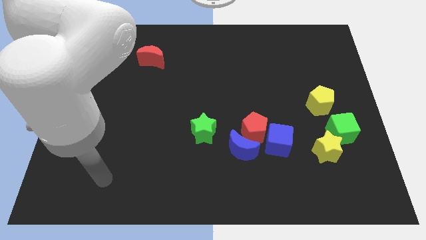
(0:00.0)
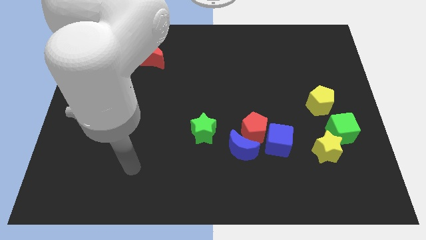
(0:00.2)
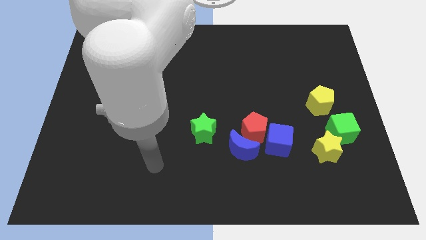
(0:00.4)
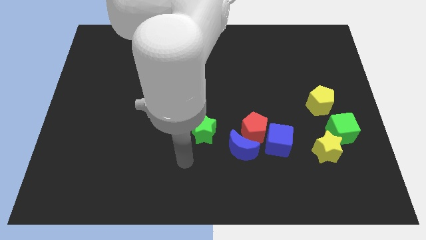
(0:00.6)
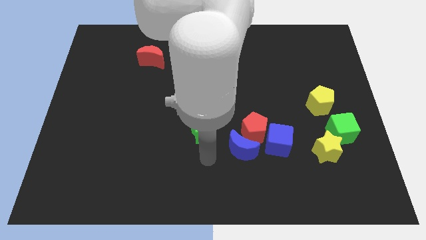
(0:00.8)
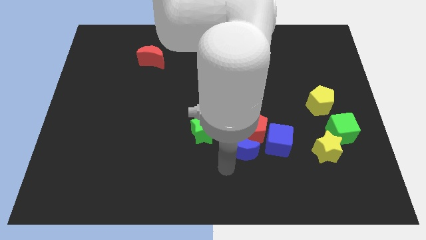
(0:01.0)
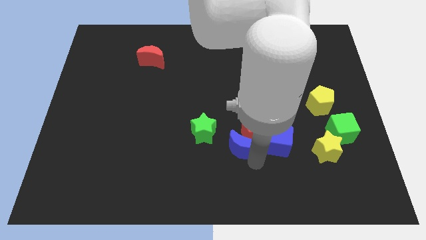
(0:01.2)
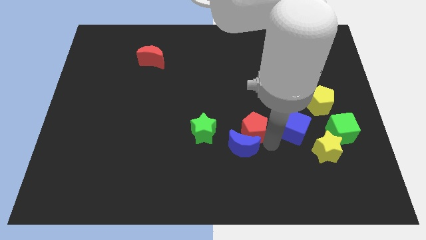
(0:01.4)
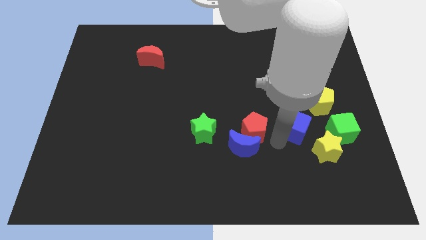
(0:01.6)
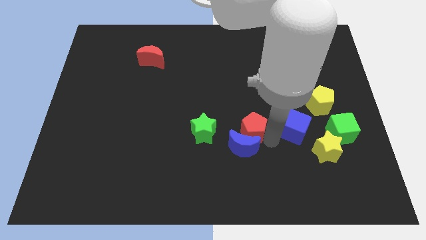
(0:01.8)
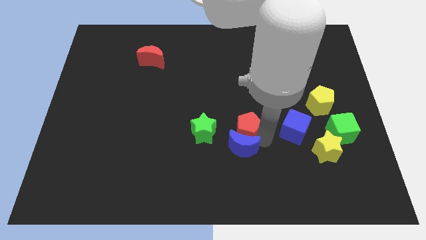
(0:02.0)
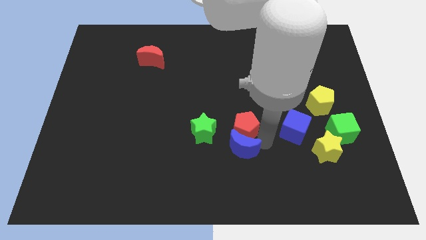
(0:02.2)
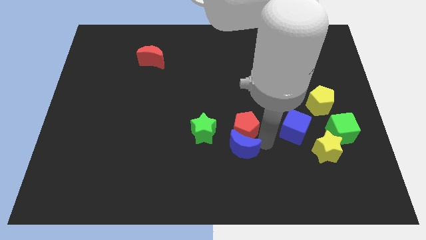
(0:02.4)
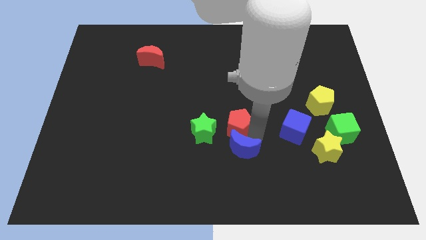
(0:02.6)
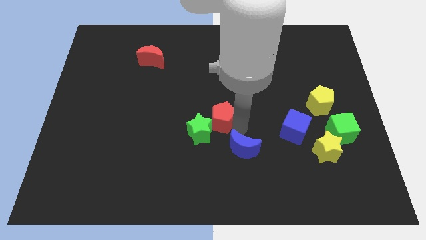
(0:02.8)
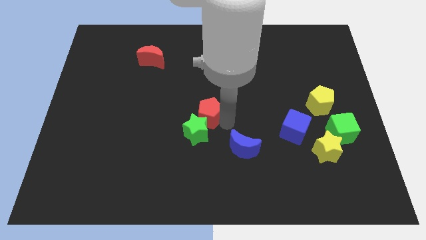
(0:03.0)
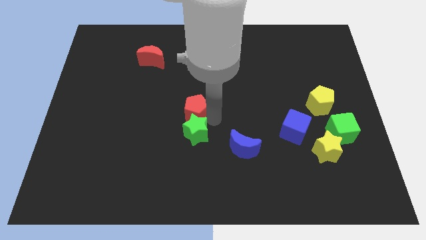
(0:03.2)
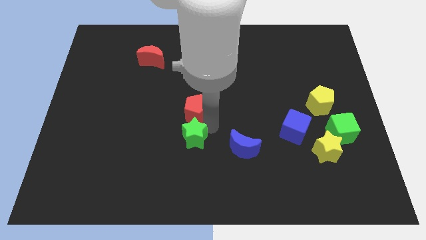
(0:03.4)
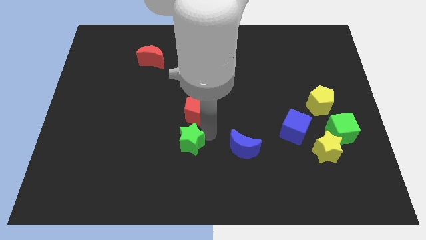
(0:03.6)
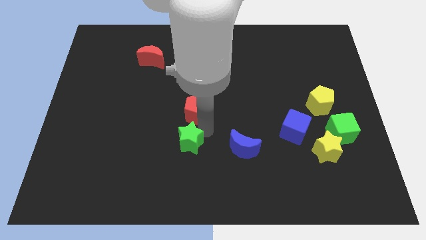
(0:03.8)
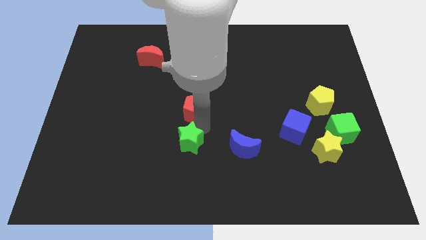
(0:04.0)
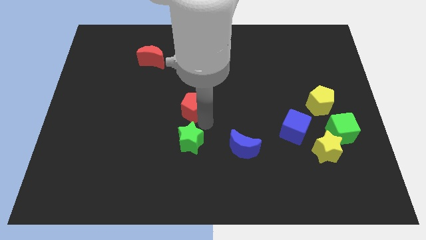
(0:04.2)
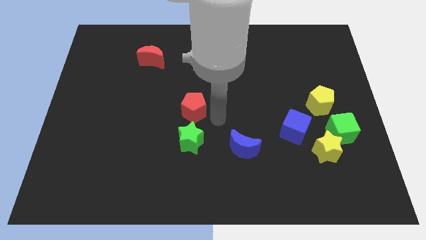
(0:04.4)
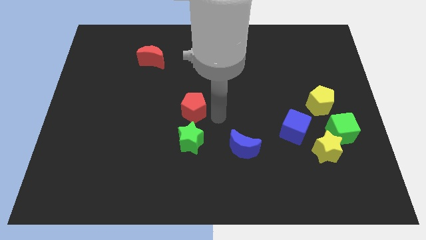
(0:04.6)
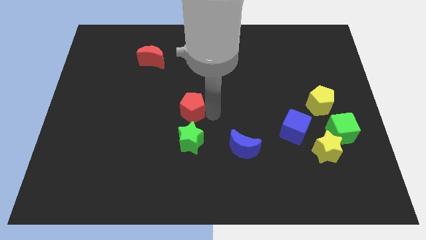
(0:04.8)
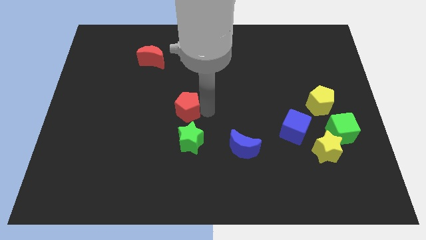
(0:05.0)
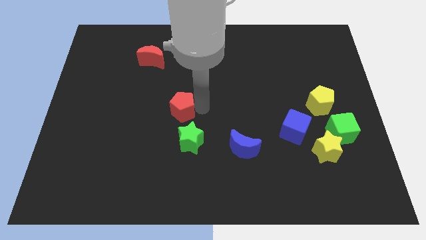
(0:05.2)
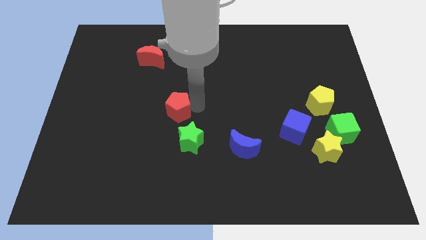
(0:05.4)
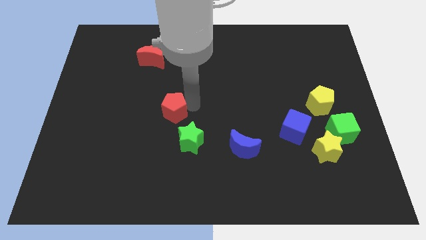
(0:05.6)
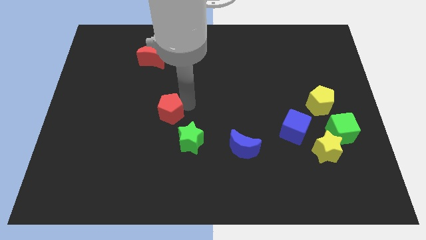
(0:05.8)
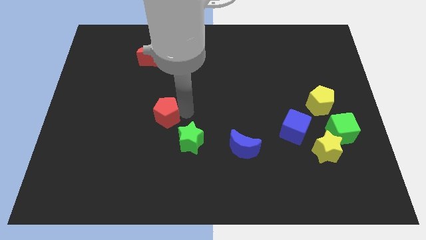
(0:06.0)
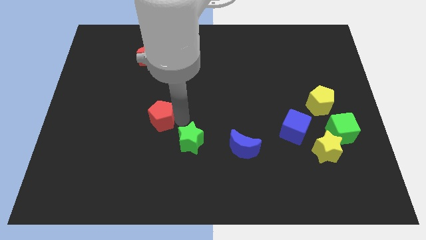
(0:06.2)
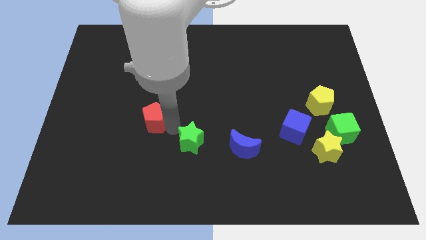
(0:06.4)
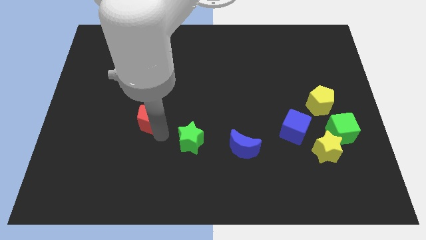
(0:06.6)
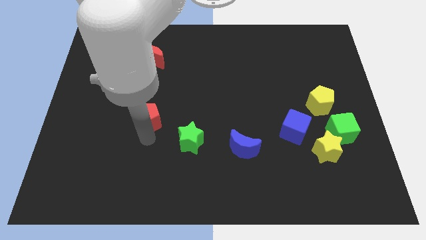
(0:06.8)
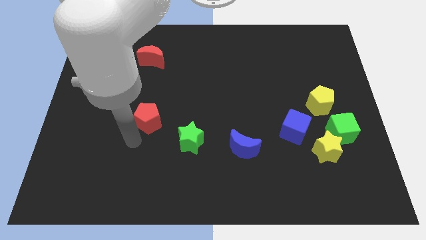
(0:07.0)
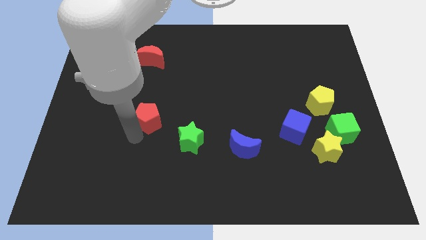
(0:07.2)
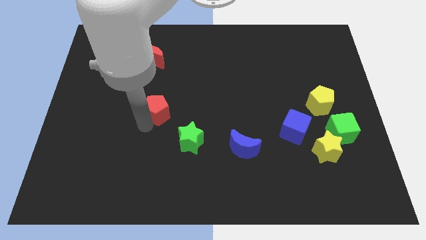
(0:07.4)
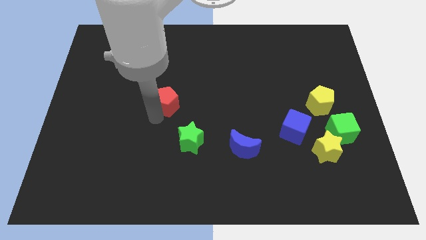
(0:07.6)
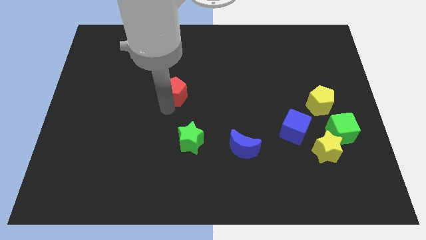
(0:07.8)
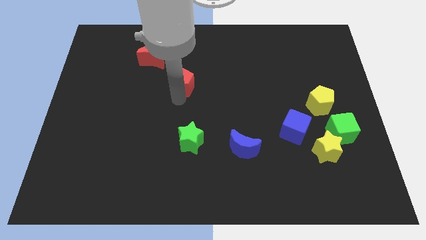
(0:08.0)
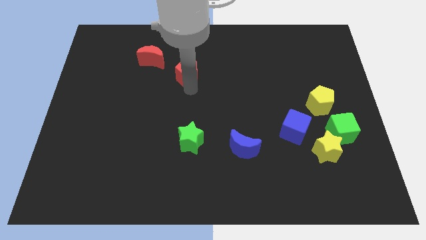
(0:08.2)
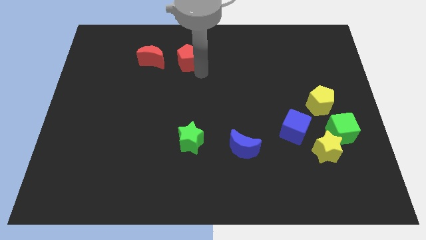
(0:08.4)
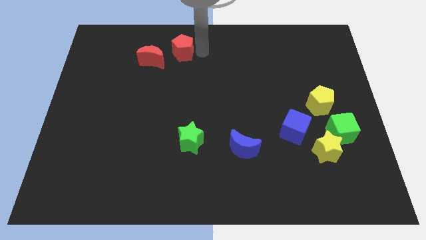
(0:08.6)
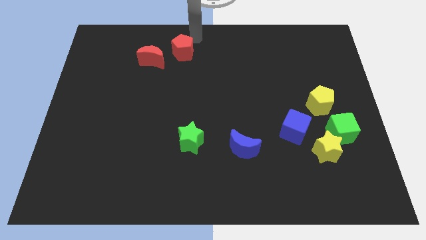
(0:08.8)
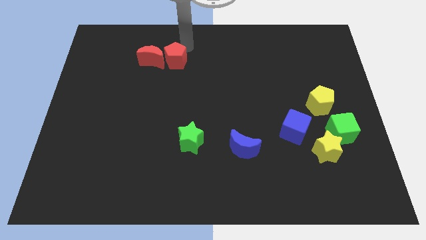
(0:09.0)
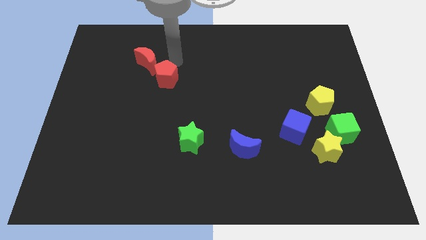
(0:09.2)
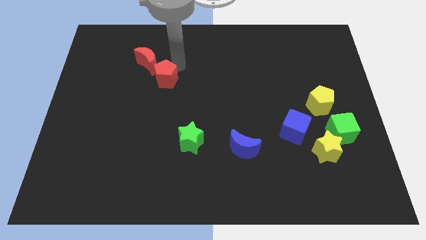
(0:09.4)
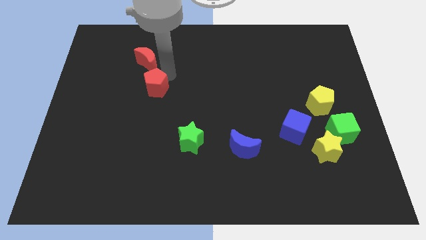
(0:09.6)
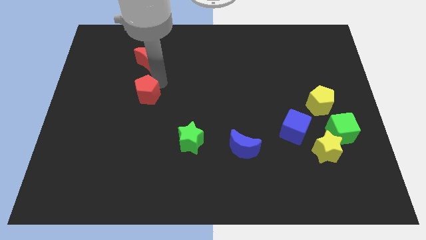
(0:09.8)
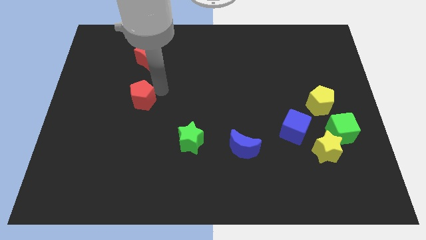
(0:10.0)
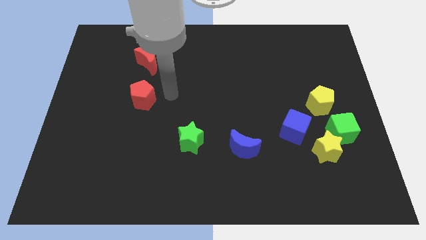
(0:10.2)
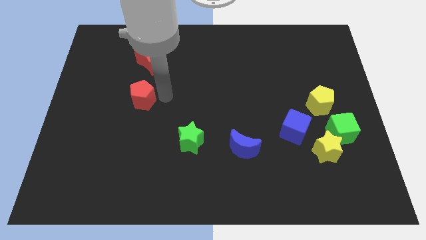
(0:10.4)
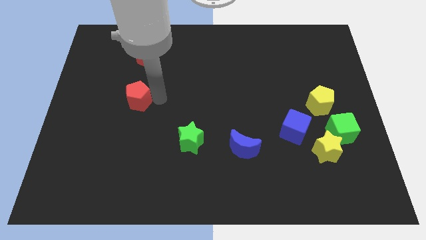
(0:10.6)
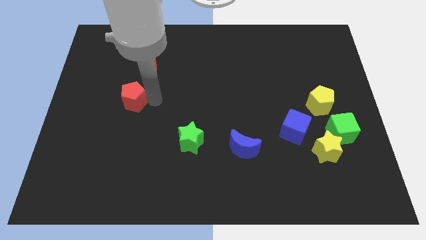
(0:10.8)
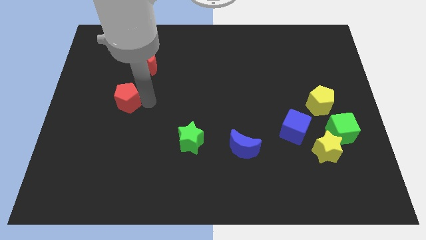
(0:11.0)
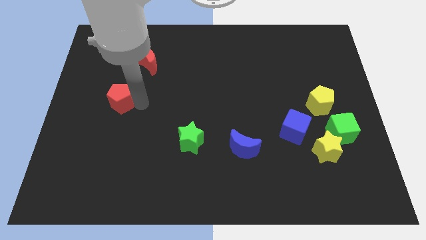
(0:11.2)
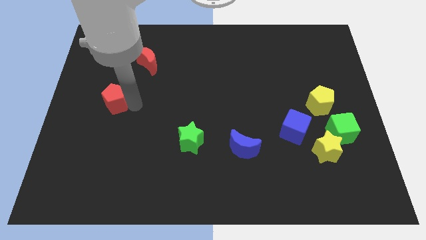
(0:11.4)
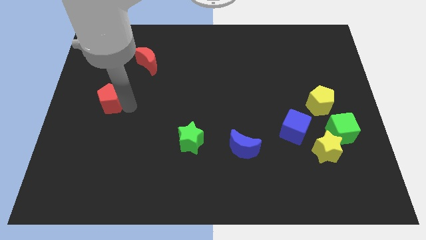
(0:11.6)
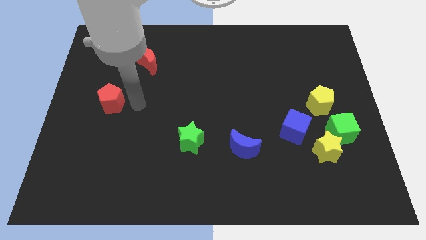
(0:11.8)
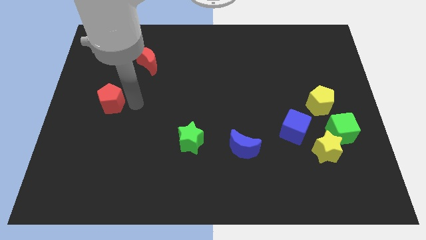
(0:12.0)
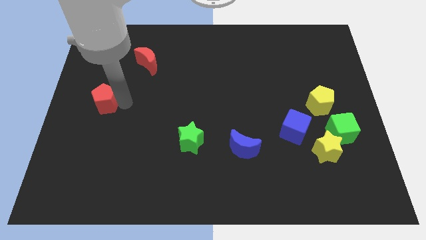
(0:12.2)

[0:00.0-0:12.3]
move the red pentagon to the left side

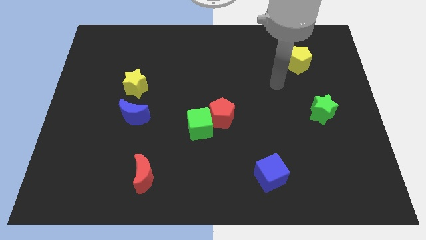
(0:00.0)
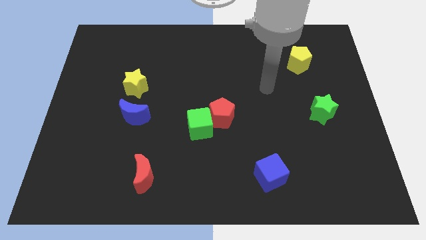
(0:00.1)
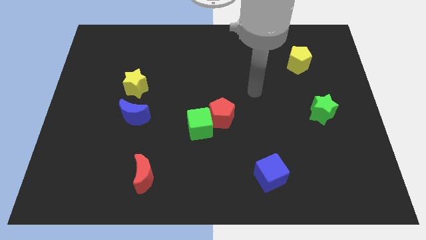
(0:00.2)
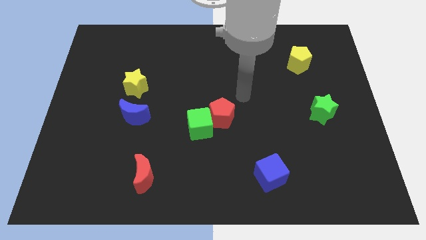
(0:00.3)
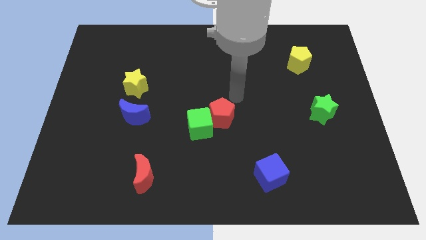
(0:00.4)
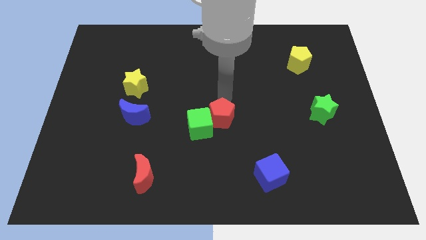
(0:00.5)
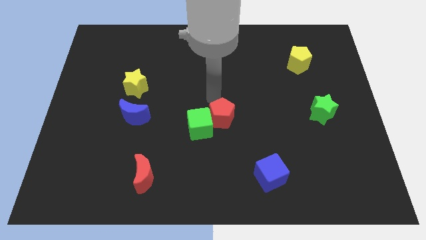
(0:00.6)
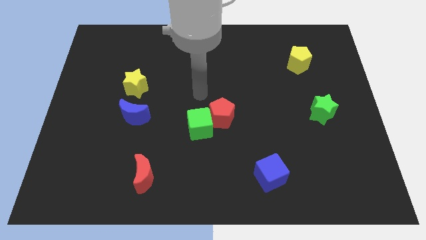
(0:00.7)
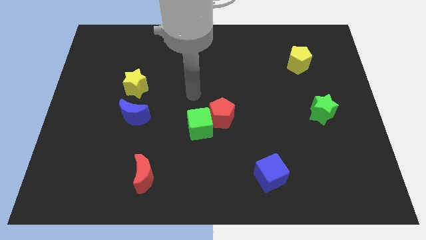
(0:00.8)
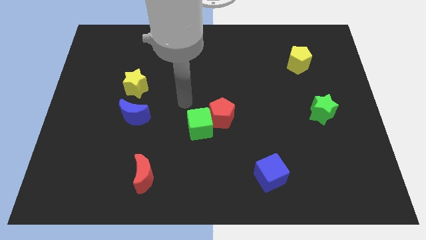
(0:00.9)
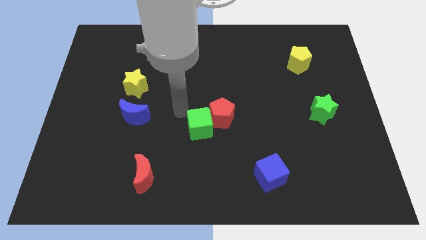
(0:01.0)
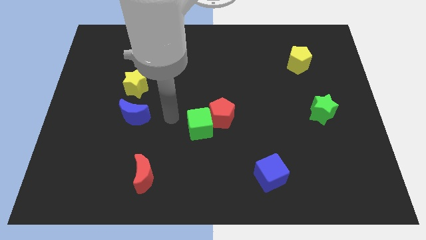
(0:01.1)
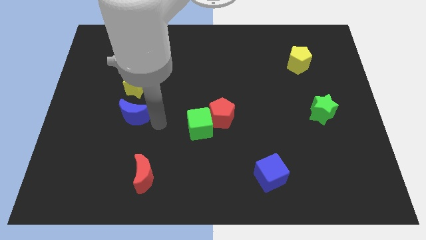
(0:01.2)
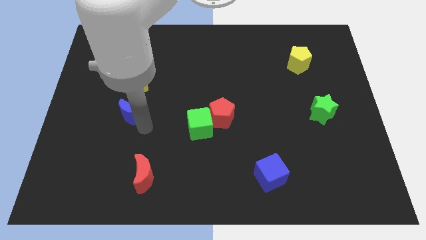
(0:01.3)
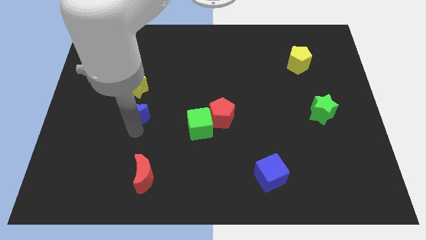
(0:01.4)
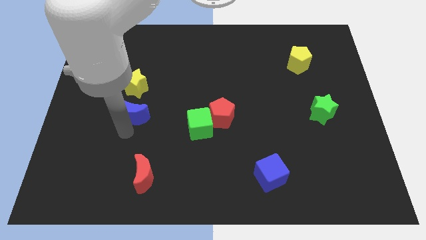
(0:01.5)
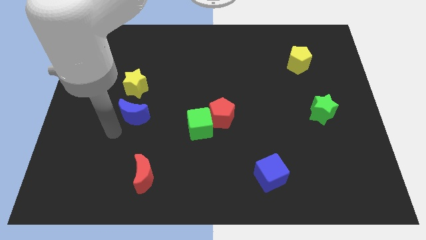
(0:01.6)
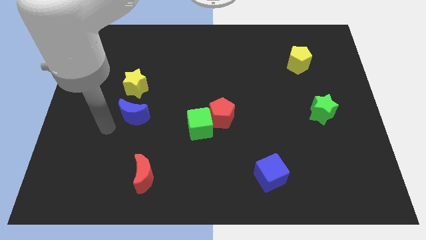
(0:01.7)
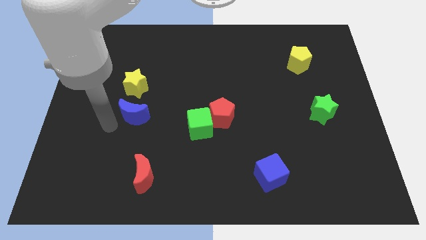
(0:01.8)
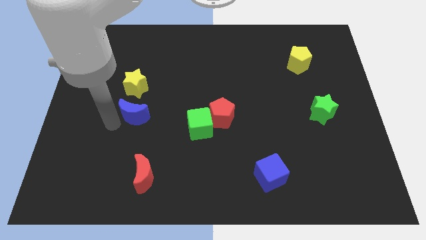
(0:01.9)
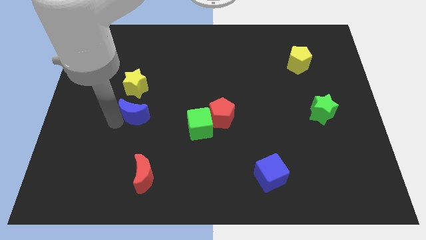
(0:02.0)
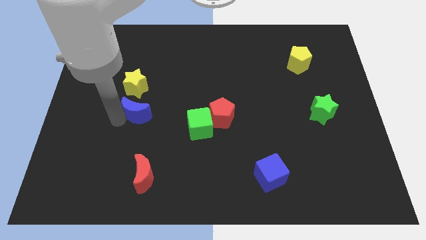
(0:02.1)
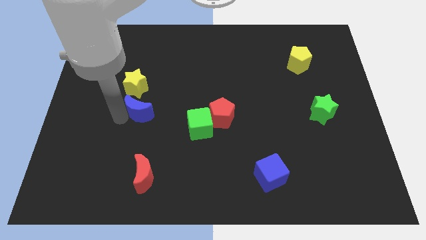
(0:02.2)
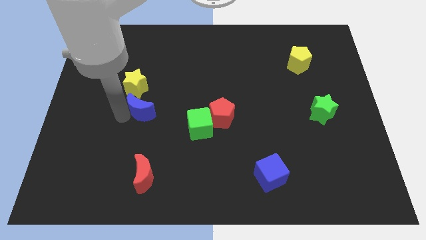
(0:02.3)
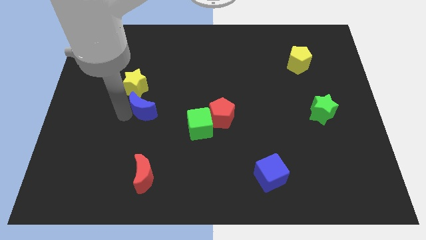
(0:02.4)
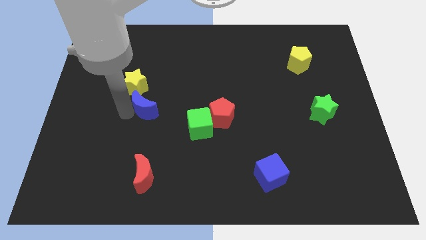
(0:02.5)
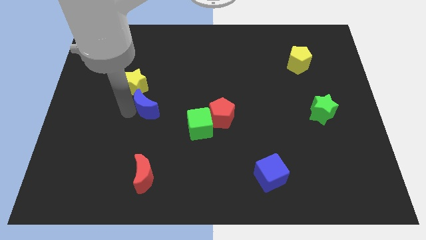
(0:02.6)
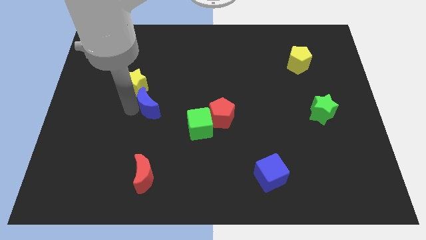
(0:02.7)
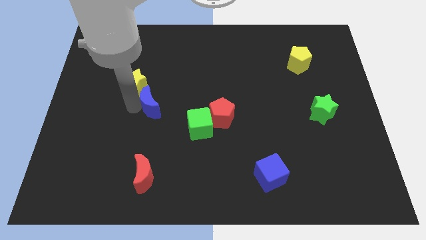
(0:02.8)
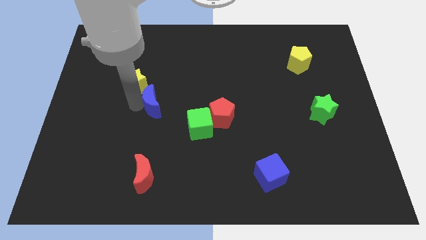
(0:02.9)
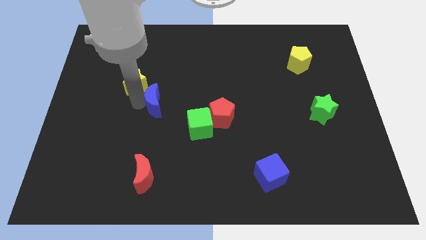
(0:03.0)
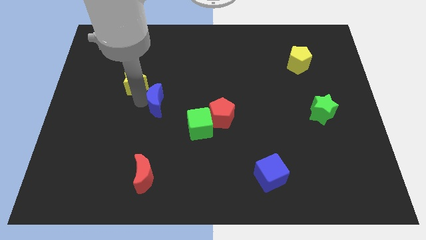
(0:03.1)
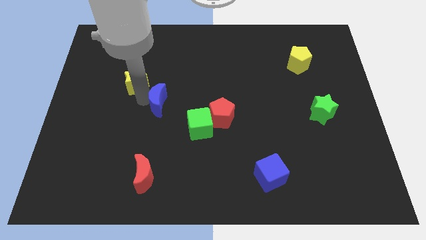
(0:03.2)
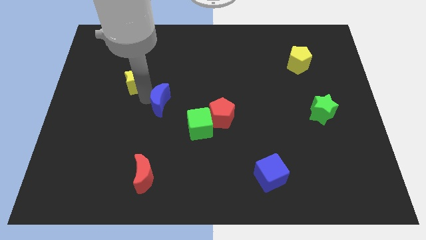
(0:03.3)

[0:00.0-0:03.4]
push the blue moon to the center of the board
